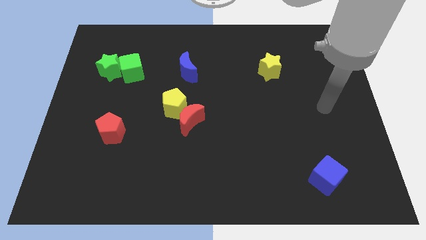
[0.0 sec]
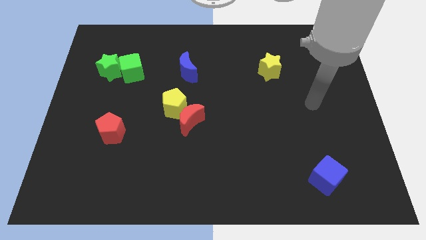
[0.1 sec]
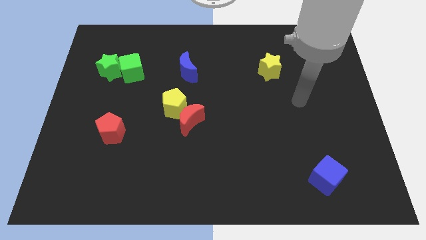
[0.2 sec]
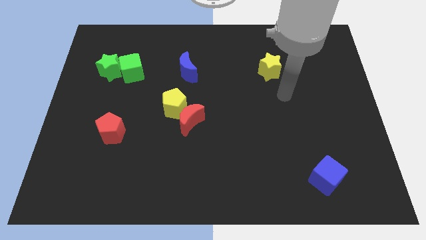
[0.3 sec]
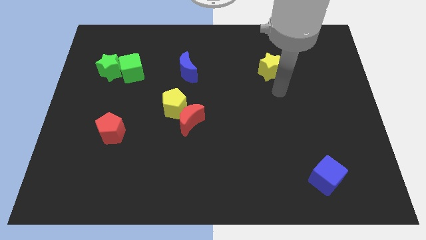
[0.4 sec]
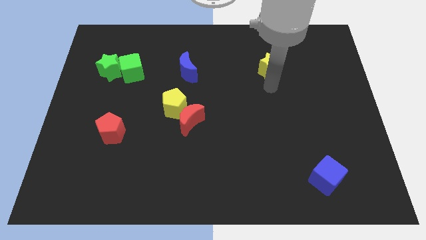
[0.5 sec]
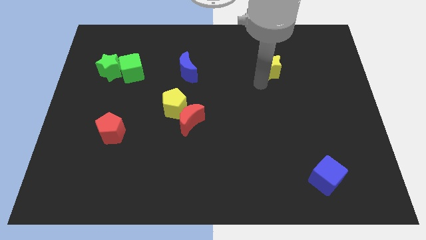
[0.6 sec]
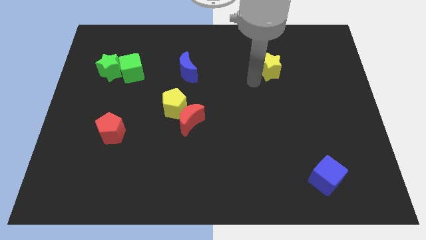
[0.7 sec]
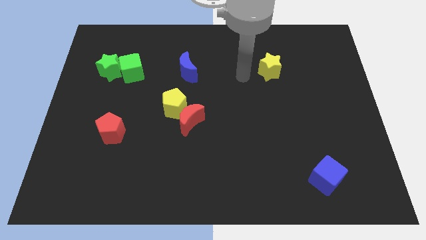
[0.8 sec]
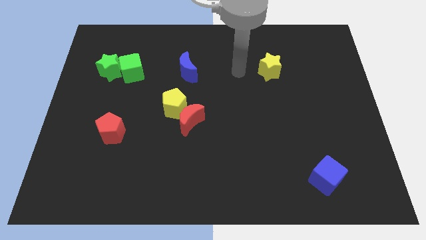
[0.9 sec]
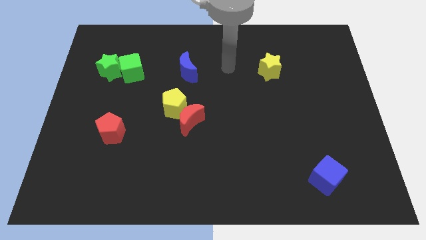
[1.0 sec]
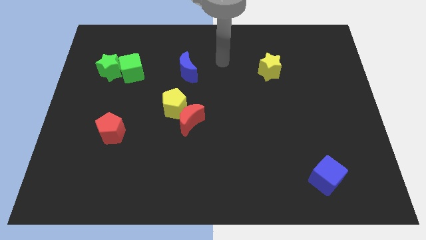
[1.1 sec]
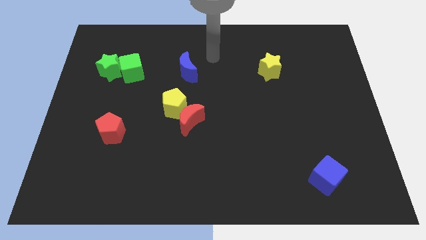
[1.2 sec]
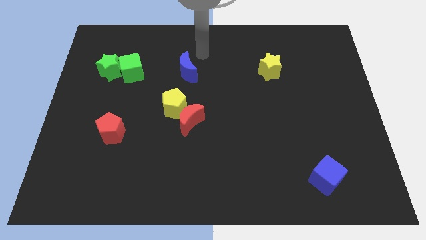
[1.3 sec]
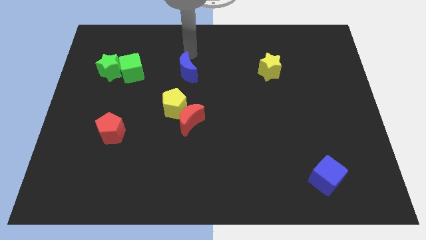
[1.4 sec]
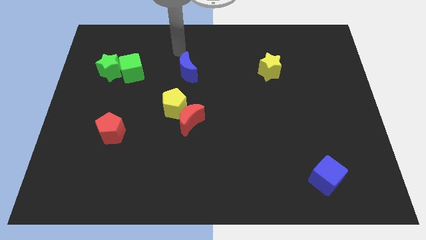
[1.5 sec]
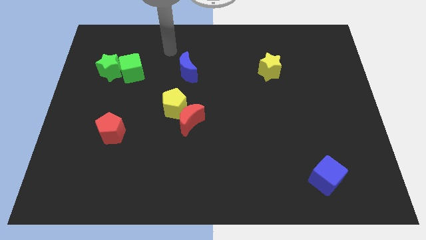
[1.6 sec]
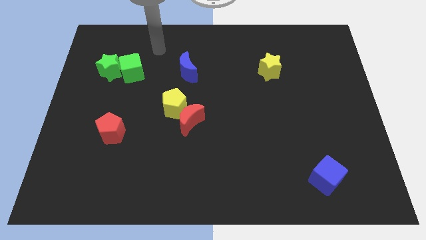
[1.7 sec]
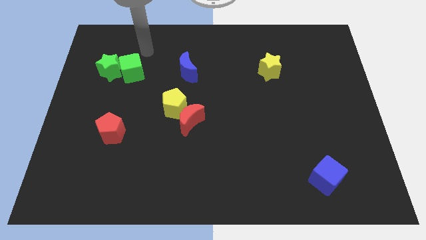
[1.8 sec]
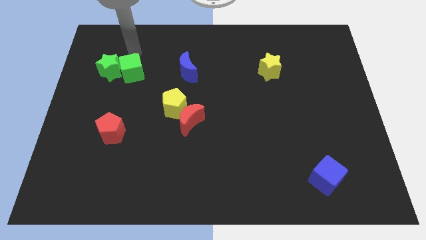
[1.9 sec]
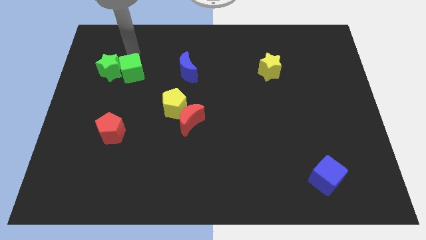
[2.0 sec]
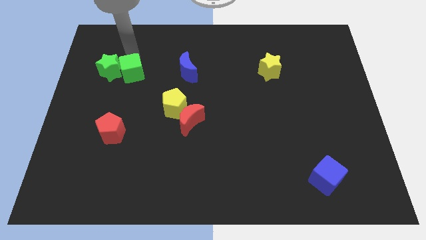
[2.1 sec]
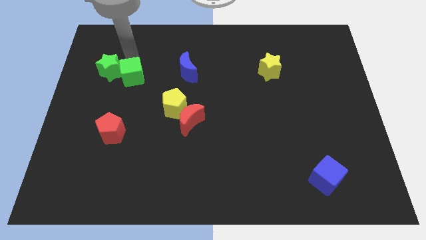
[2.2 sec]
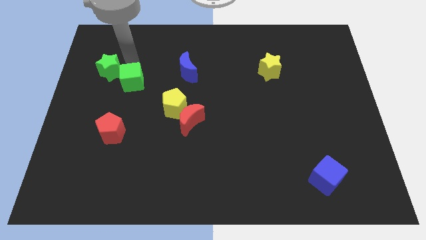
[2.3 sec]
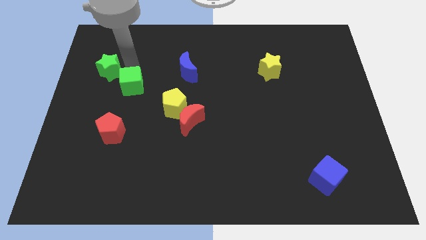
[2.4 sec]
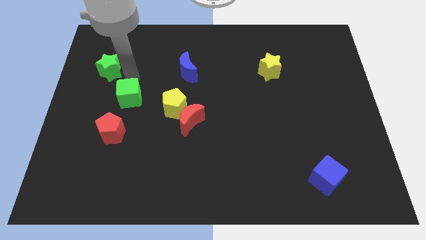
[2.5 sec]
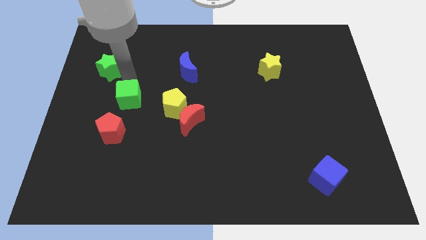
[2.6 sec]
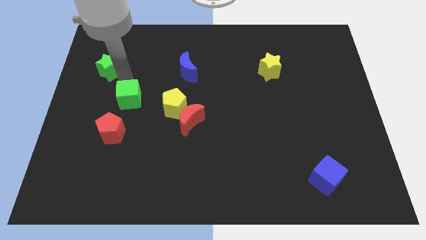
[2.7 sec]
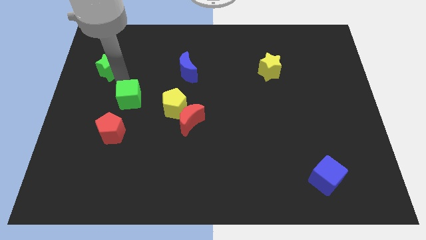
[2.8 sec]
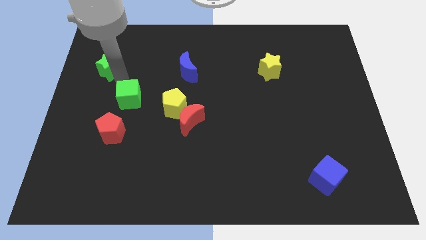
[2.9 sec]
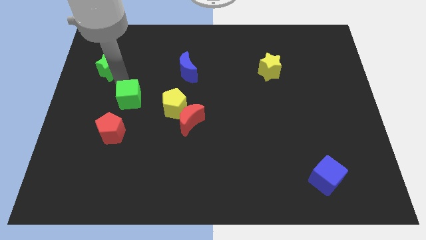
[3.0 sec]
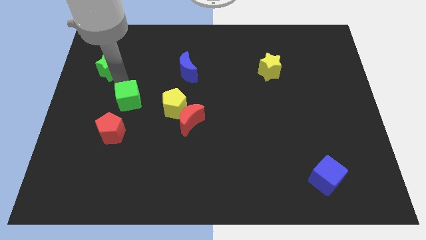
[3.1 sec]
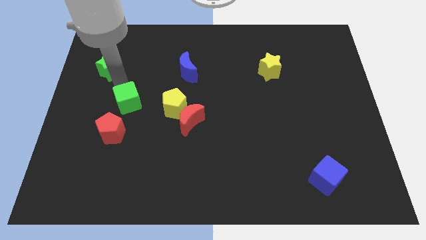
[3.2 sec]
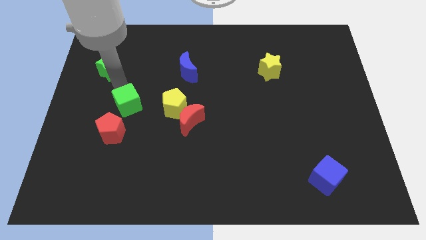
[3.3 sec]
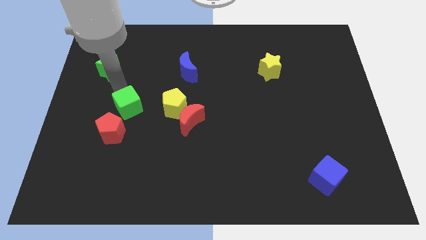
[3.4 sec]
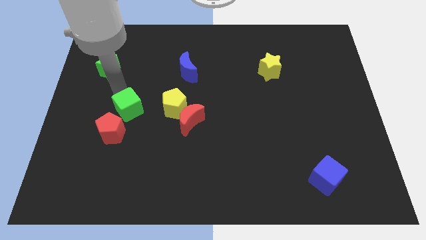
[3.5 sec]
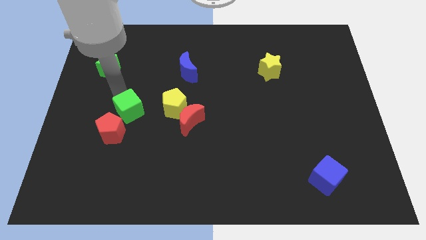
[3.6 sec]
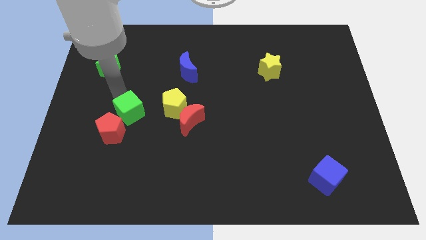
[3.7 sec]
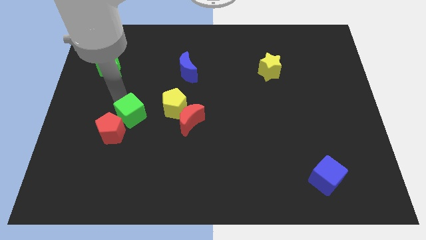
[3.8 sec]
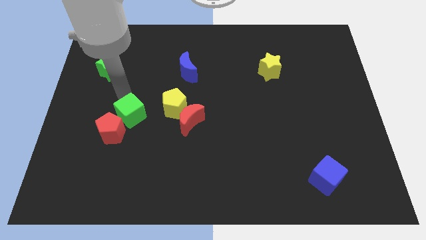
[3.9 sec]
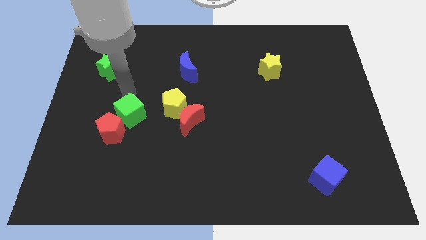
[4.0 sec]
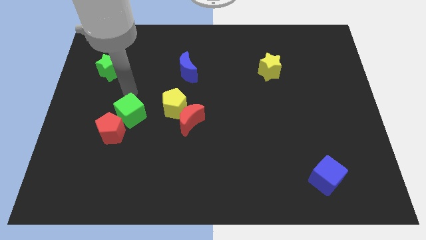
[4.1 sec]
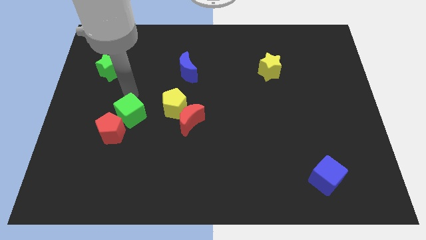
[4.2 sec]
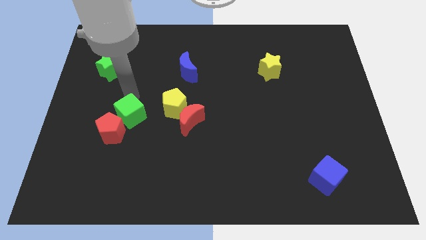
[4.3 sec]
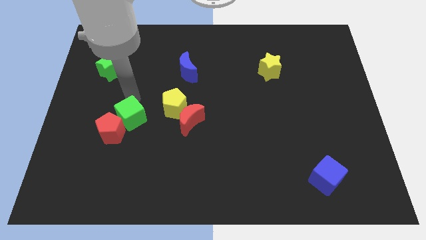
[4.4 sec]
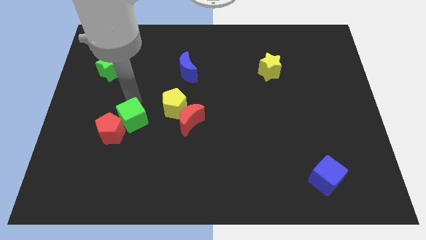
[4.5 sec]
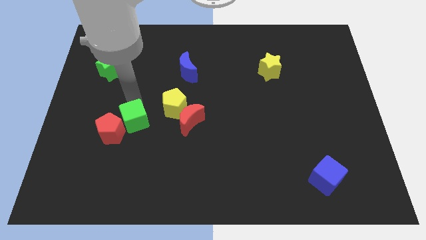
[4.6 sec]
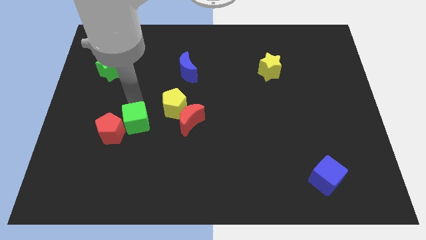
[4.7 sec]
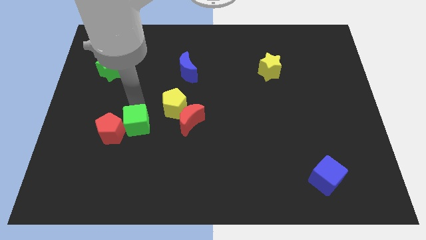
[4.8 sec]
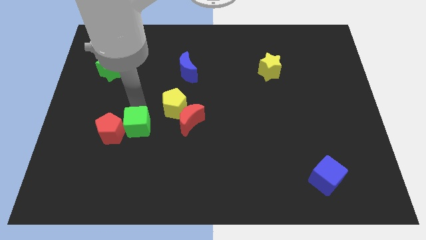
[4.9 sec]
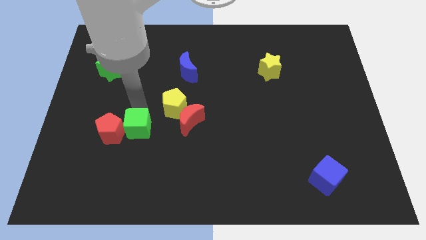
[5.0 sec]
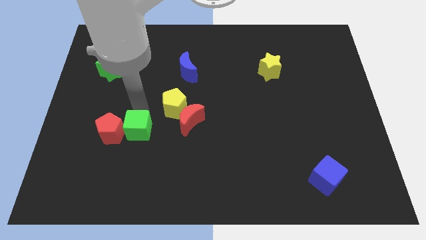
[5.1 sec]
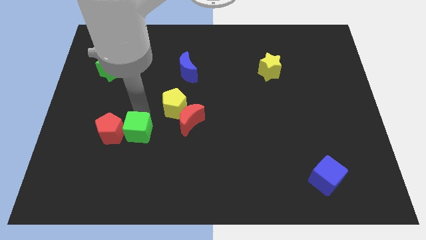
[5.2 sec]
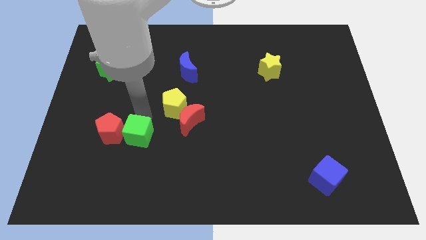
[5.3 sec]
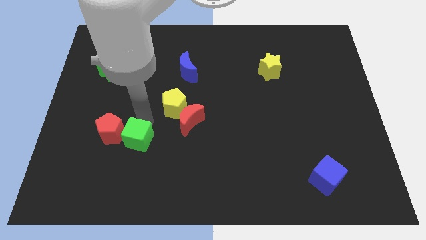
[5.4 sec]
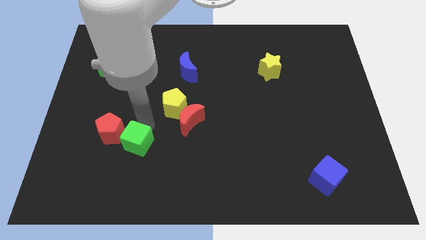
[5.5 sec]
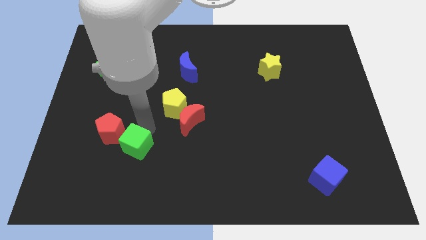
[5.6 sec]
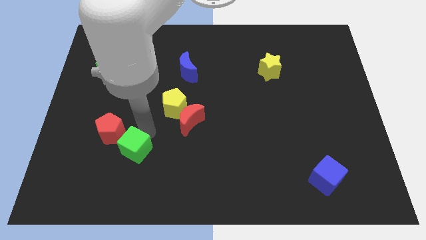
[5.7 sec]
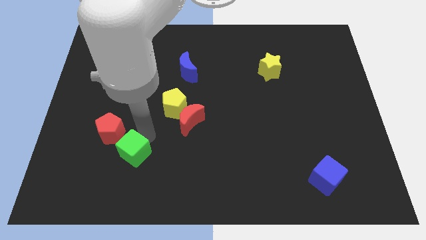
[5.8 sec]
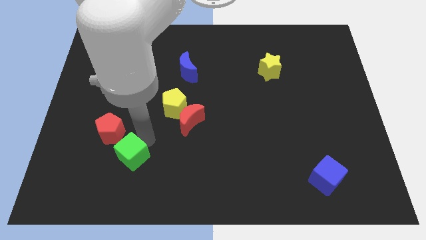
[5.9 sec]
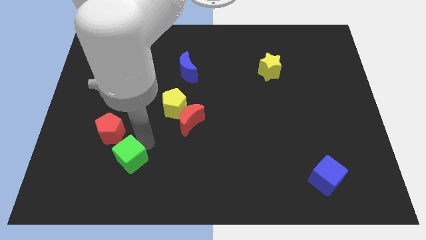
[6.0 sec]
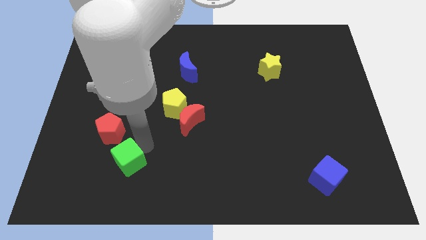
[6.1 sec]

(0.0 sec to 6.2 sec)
push the green cube to the bottom of the red pentagon

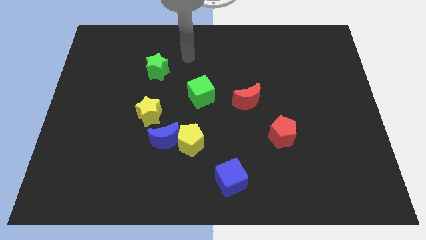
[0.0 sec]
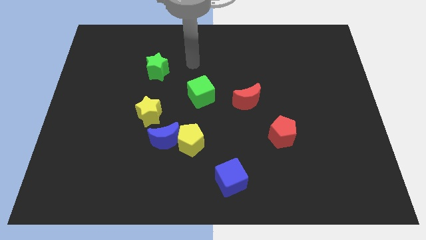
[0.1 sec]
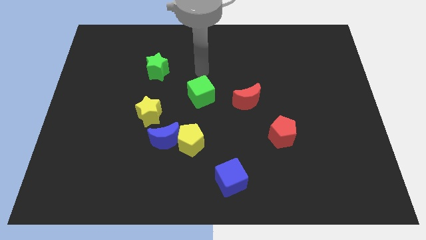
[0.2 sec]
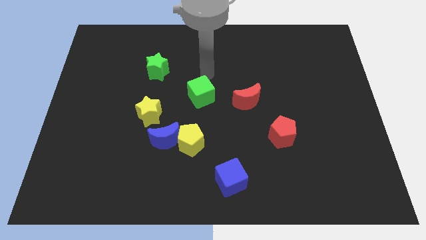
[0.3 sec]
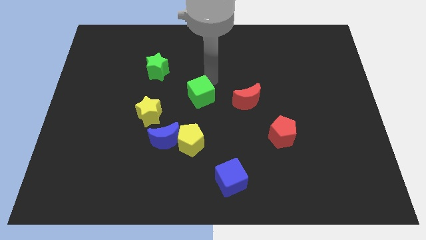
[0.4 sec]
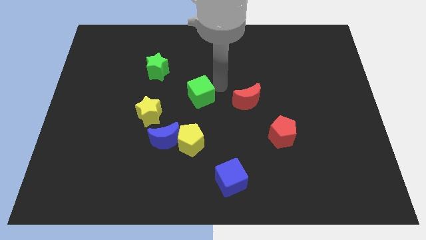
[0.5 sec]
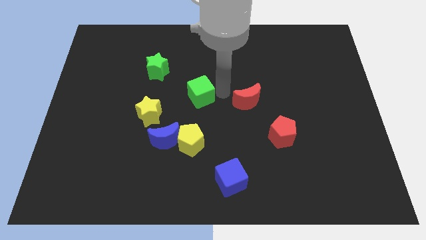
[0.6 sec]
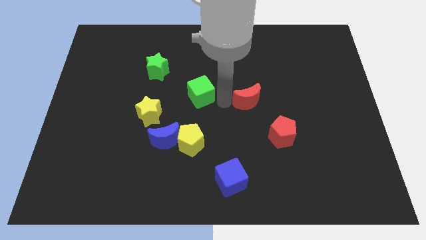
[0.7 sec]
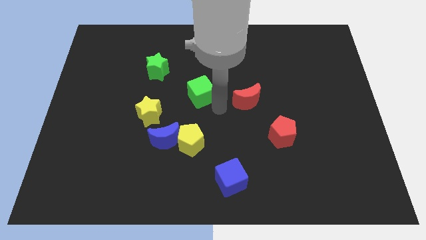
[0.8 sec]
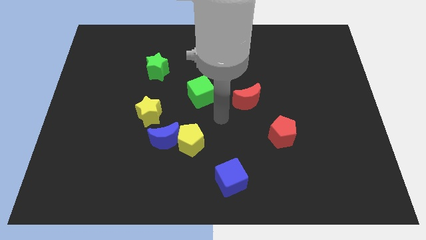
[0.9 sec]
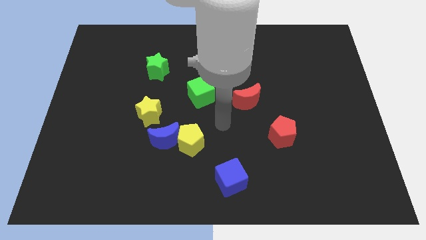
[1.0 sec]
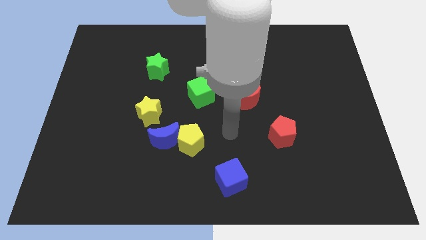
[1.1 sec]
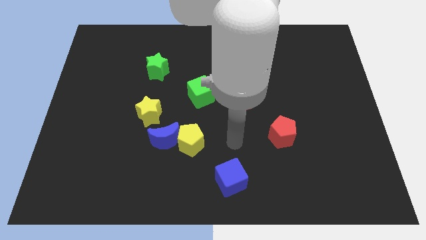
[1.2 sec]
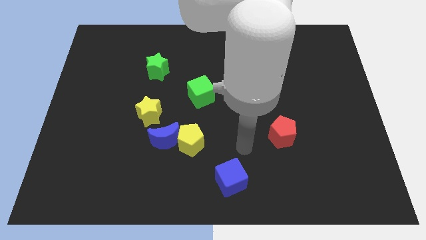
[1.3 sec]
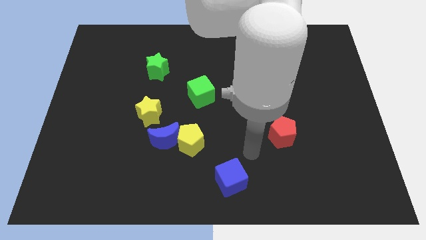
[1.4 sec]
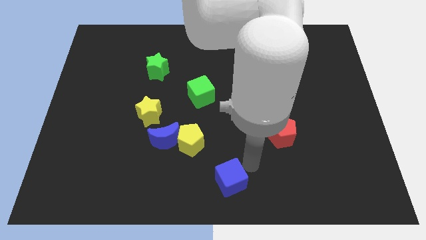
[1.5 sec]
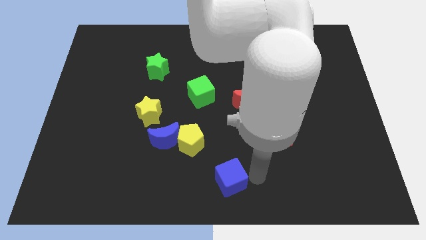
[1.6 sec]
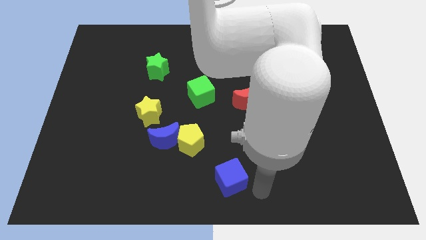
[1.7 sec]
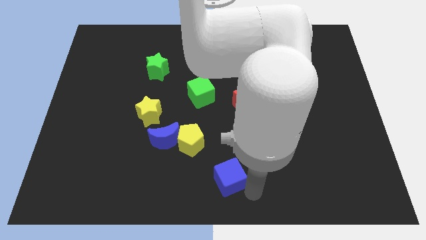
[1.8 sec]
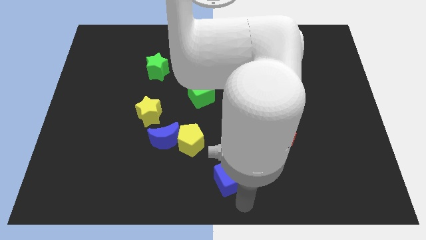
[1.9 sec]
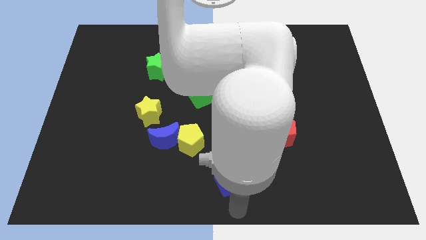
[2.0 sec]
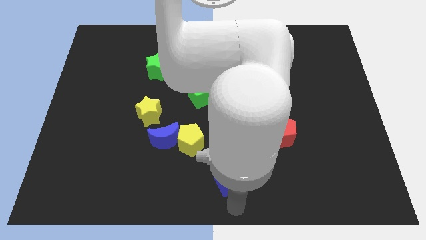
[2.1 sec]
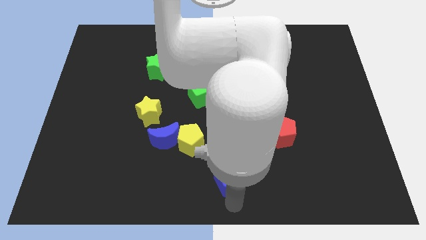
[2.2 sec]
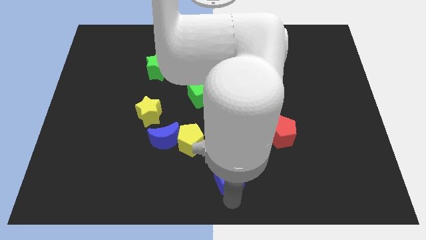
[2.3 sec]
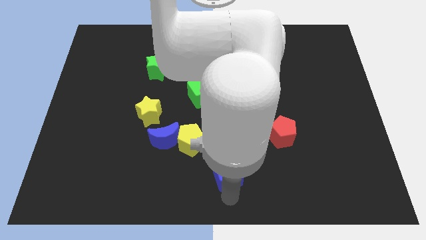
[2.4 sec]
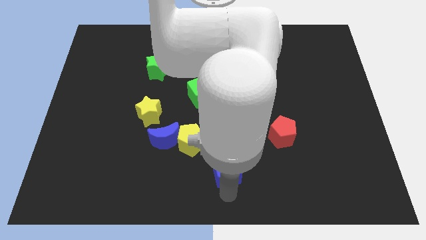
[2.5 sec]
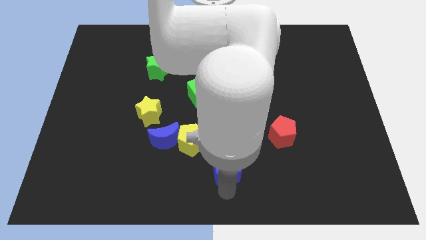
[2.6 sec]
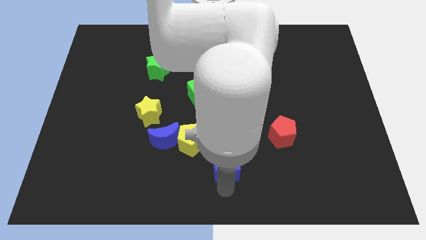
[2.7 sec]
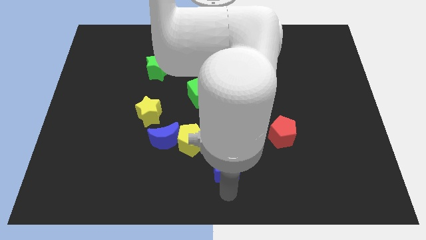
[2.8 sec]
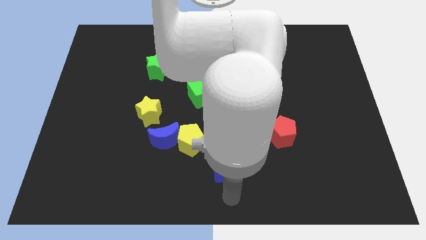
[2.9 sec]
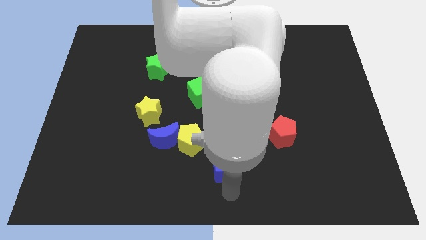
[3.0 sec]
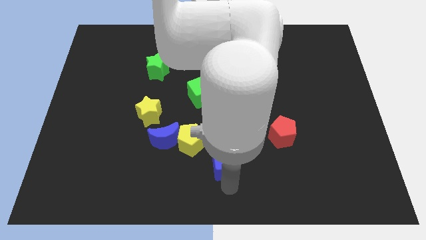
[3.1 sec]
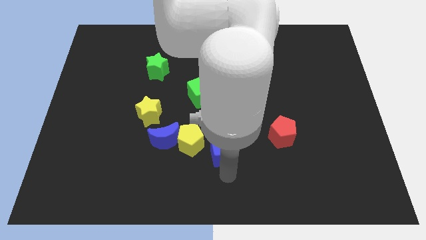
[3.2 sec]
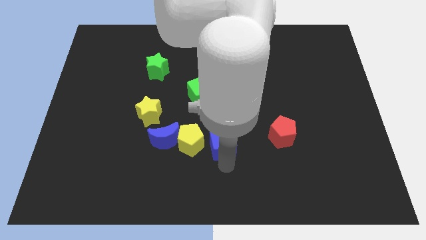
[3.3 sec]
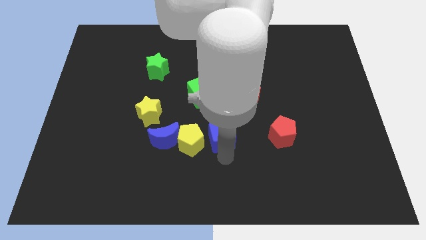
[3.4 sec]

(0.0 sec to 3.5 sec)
slide the blue cube to the top right side of the yellow pentagon
